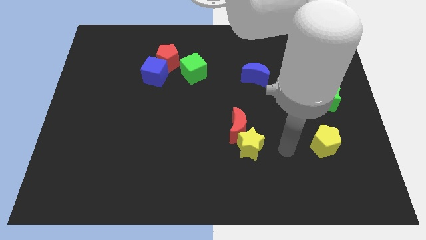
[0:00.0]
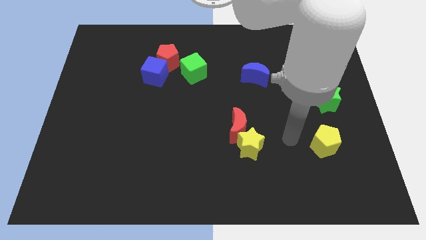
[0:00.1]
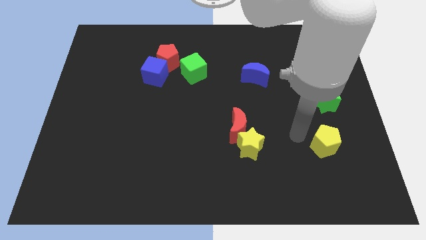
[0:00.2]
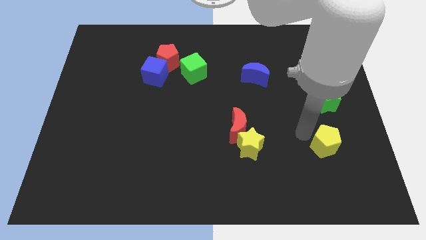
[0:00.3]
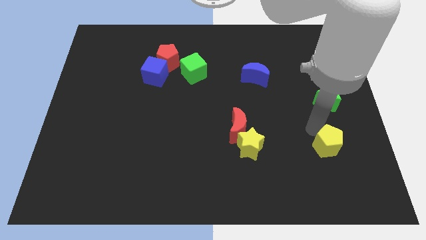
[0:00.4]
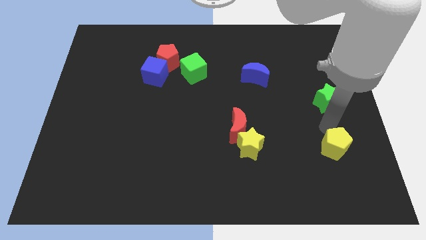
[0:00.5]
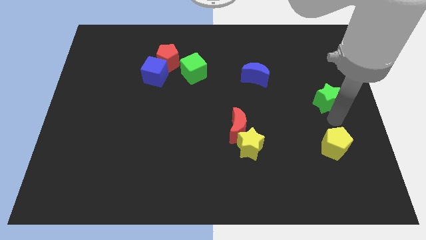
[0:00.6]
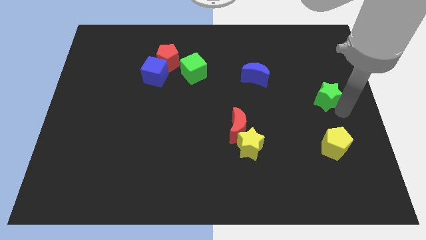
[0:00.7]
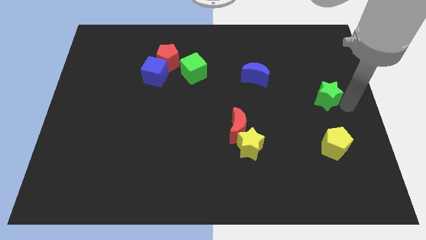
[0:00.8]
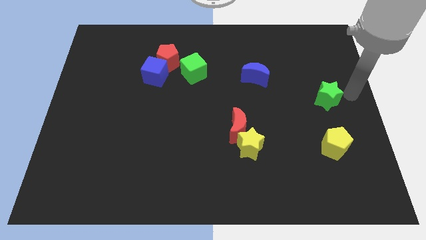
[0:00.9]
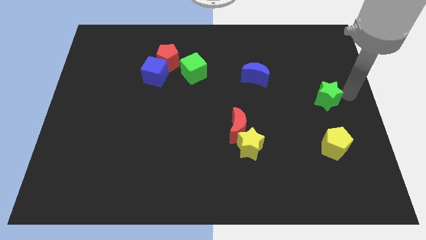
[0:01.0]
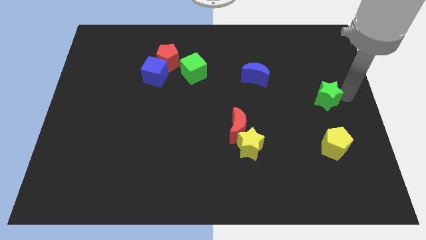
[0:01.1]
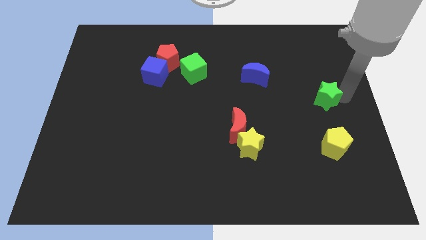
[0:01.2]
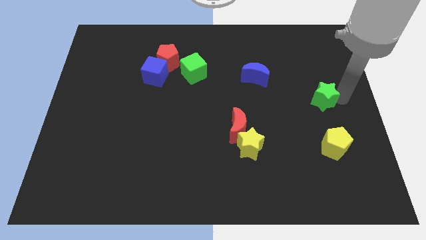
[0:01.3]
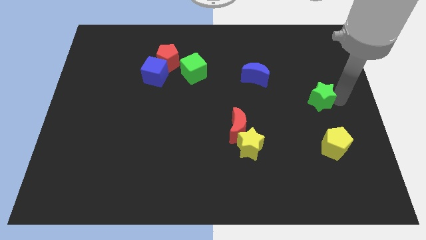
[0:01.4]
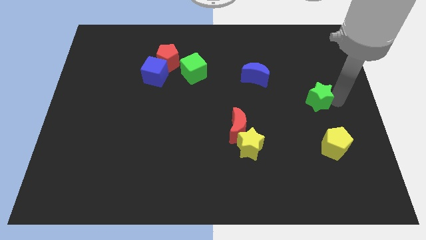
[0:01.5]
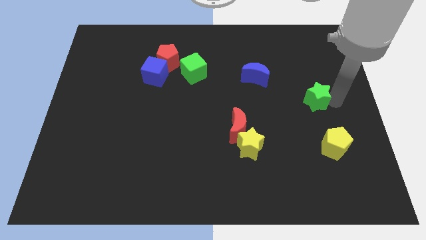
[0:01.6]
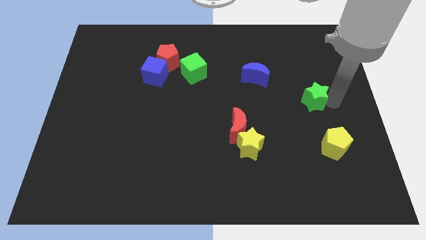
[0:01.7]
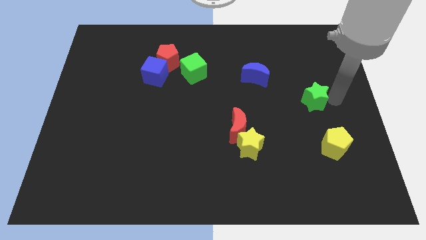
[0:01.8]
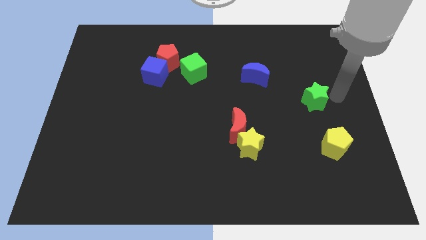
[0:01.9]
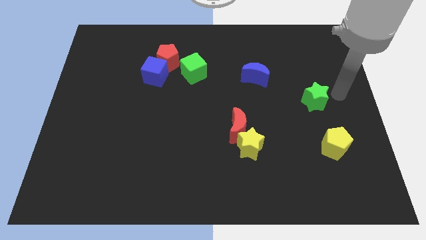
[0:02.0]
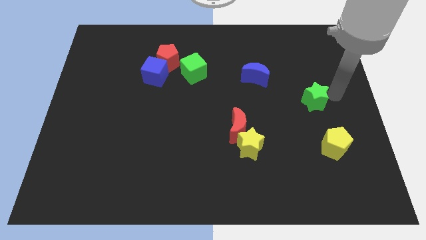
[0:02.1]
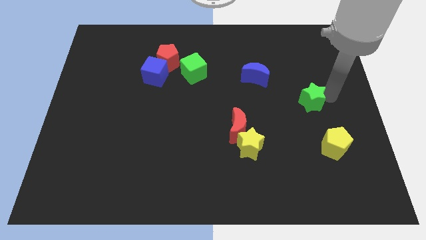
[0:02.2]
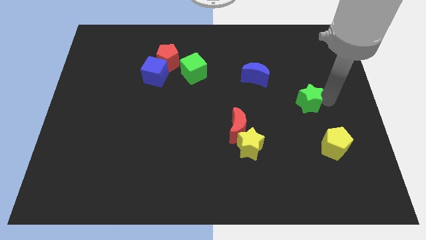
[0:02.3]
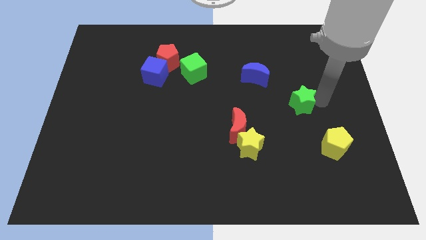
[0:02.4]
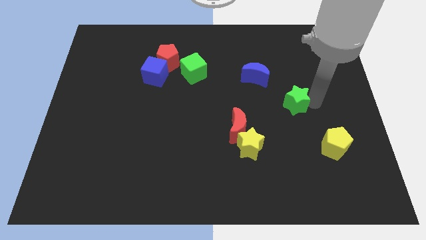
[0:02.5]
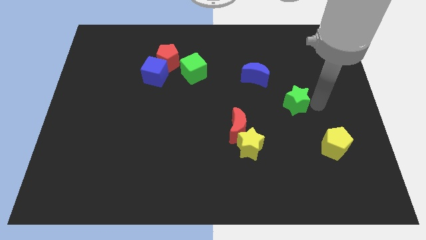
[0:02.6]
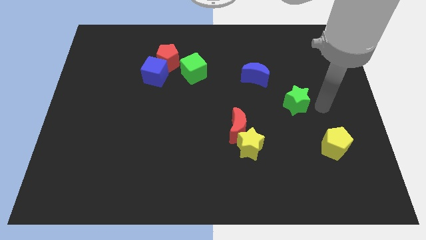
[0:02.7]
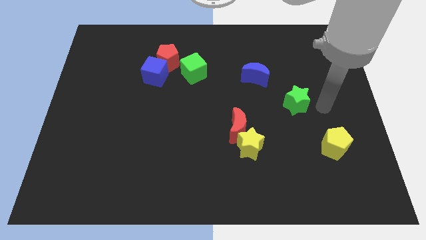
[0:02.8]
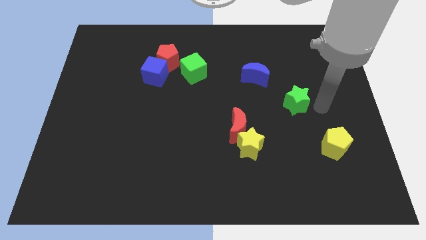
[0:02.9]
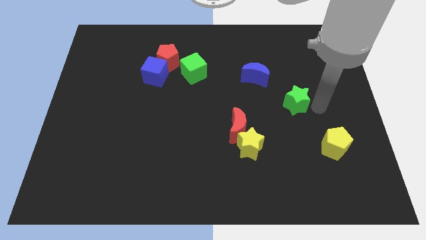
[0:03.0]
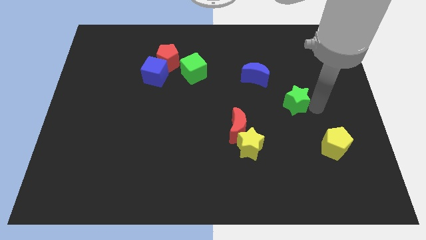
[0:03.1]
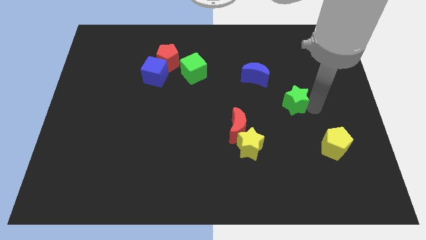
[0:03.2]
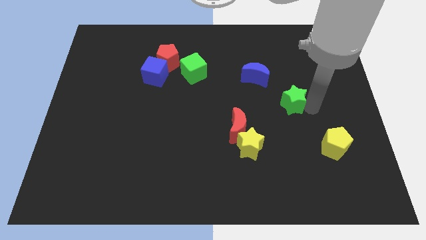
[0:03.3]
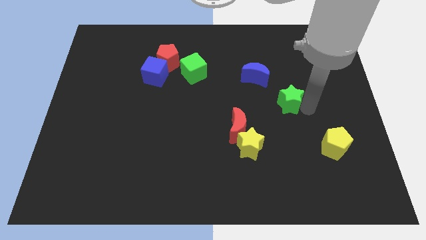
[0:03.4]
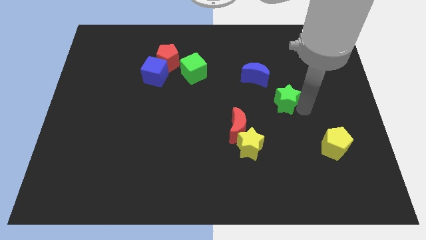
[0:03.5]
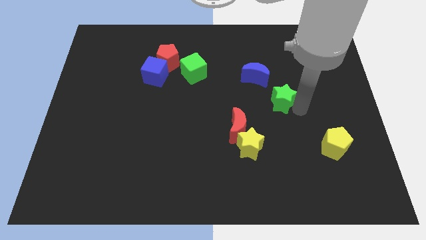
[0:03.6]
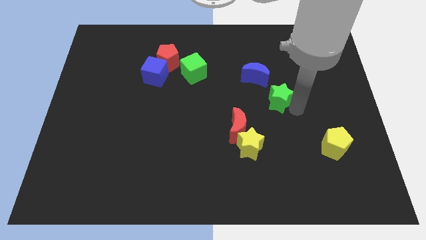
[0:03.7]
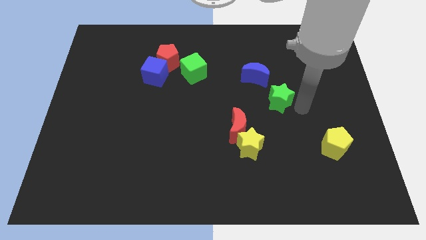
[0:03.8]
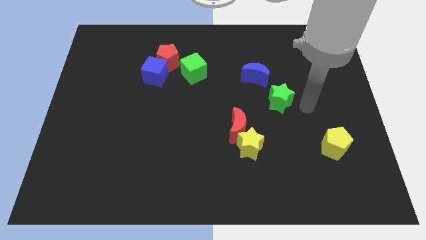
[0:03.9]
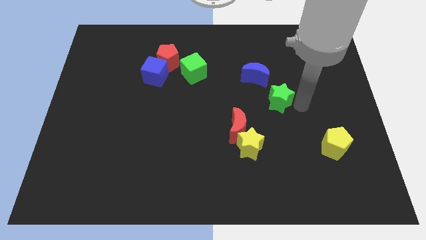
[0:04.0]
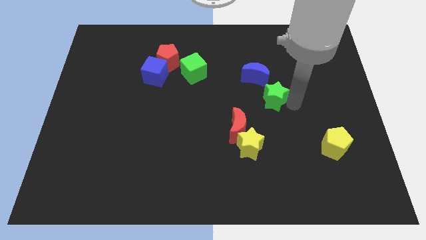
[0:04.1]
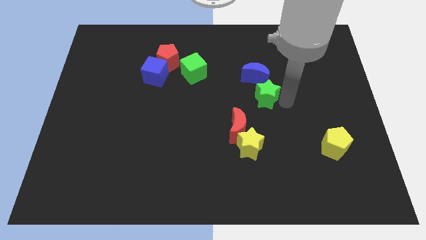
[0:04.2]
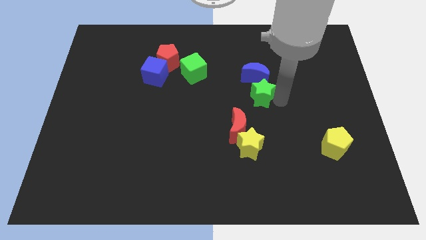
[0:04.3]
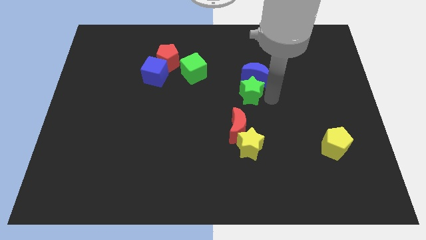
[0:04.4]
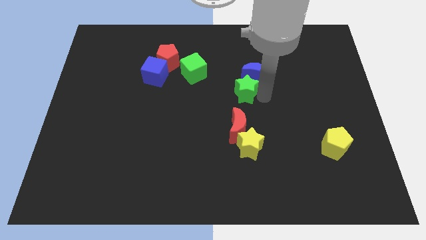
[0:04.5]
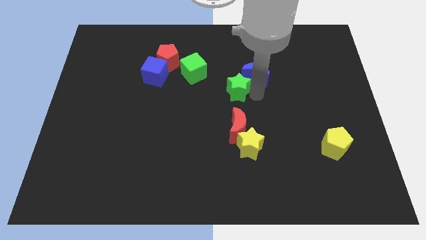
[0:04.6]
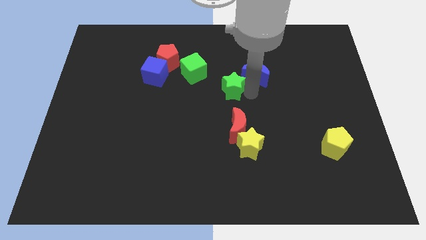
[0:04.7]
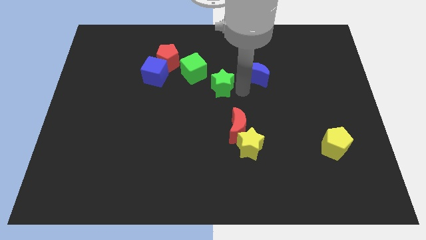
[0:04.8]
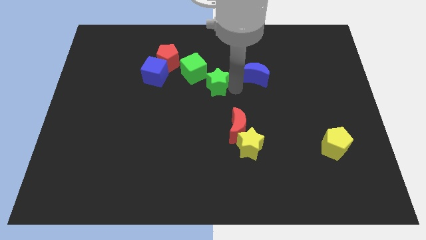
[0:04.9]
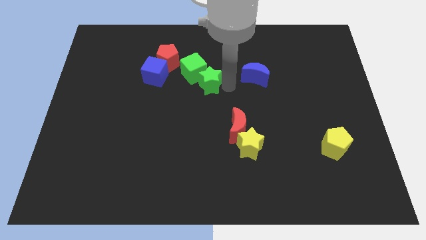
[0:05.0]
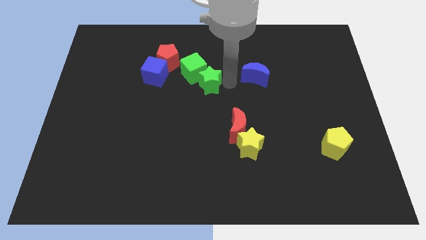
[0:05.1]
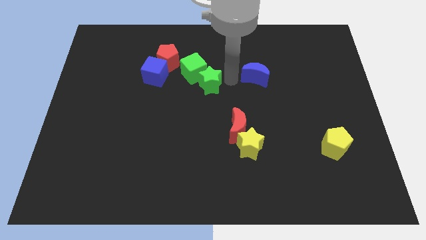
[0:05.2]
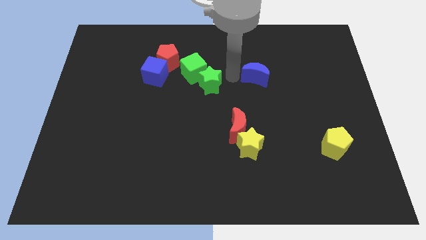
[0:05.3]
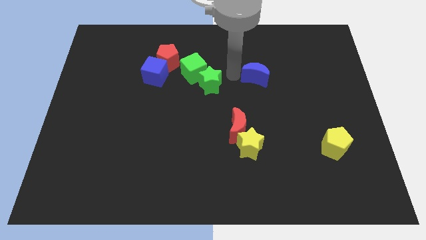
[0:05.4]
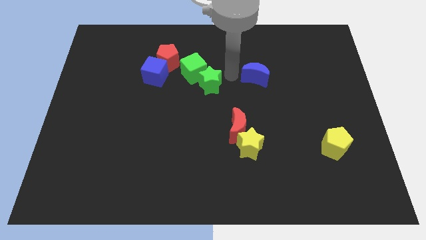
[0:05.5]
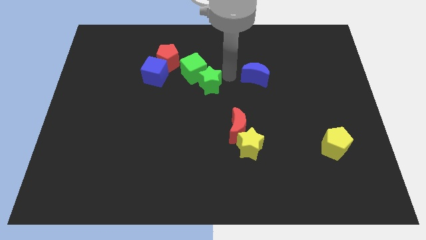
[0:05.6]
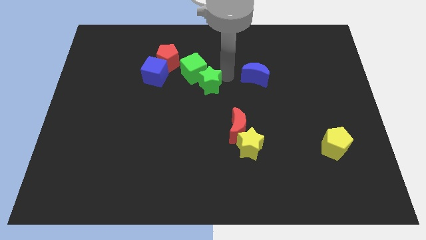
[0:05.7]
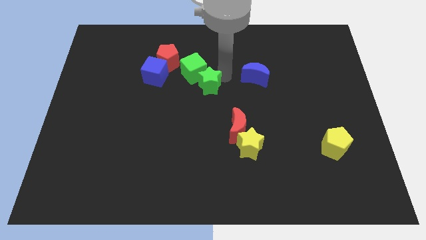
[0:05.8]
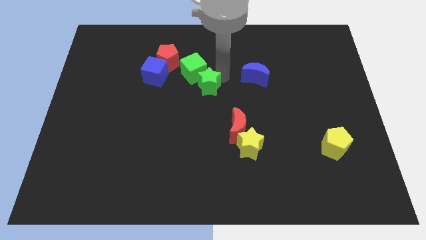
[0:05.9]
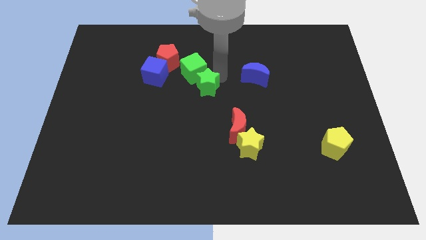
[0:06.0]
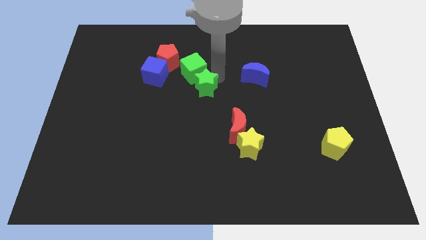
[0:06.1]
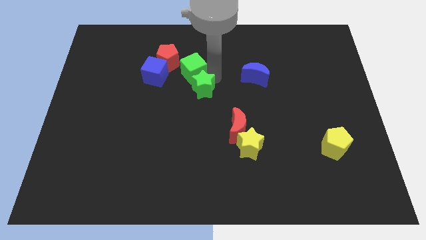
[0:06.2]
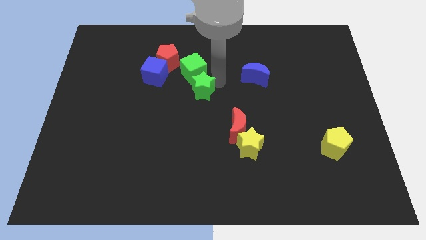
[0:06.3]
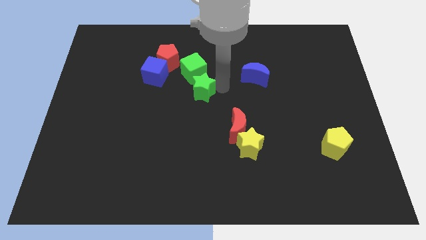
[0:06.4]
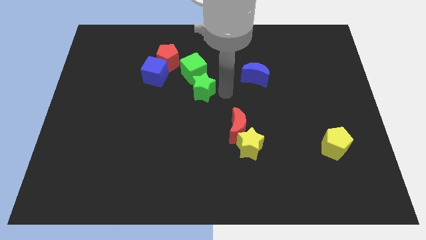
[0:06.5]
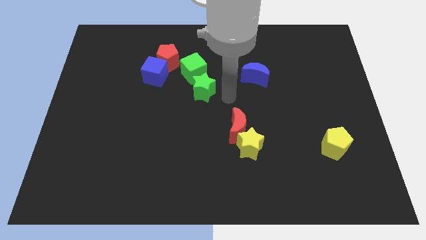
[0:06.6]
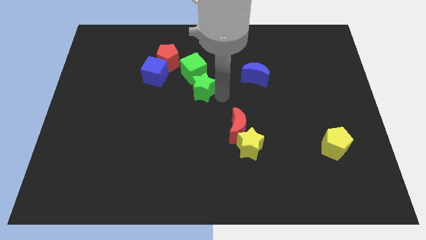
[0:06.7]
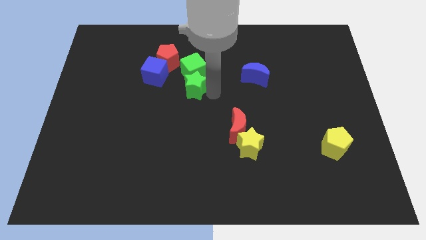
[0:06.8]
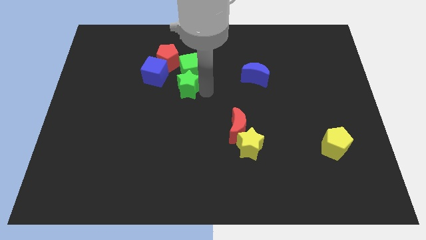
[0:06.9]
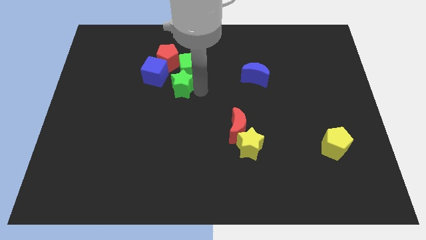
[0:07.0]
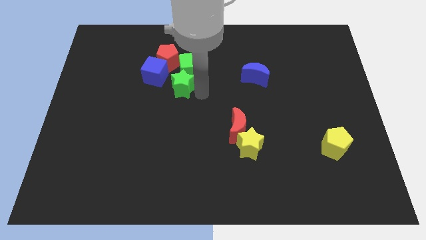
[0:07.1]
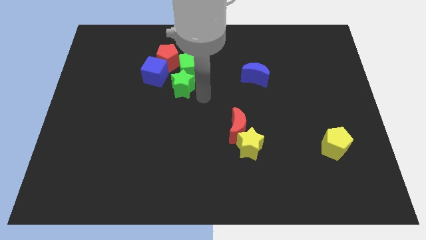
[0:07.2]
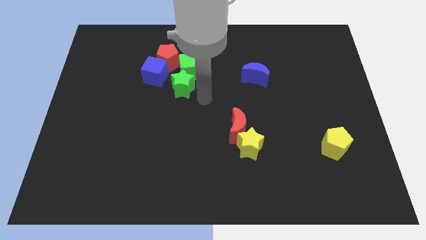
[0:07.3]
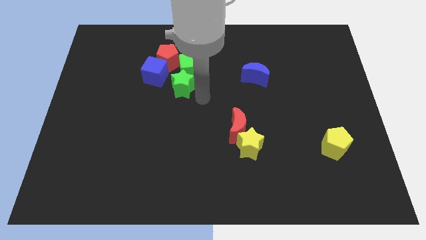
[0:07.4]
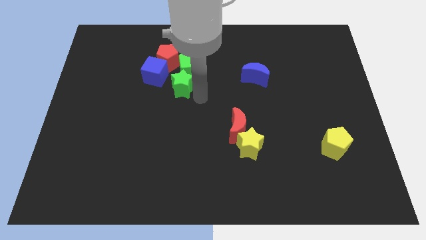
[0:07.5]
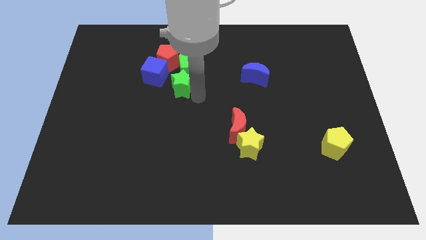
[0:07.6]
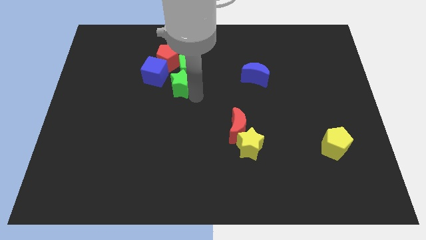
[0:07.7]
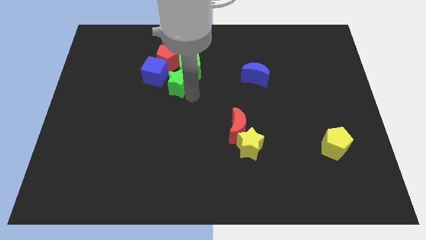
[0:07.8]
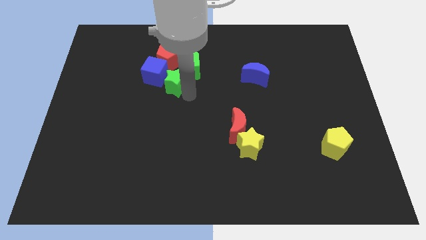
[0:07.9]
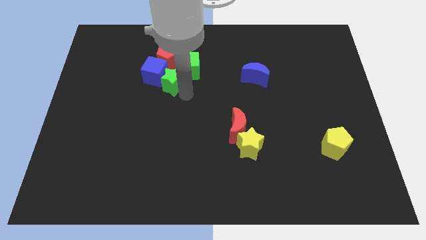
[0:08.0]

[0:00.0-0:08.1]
put the green star towards the blue cube
